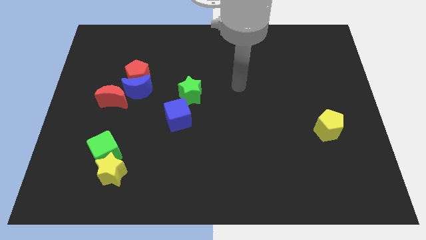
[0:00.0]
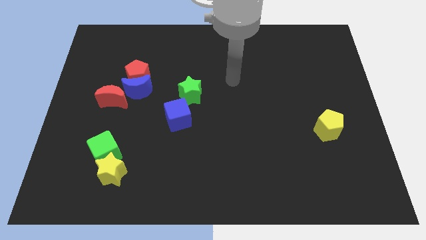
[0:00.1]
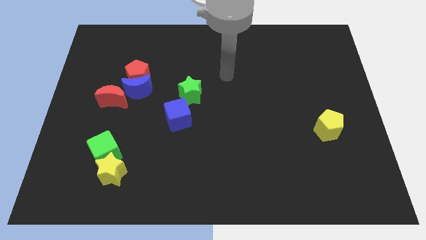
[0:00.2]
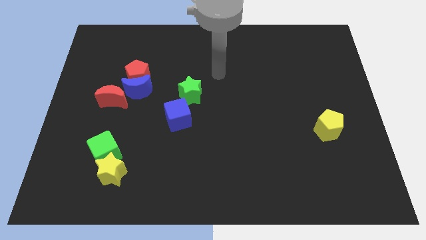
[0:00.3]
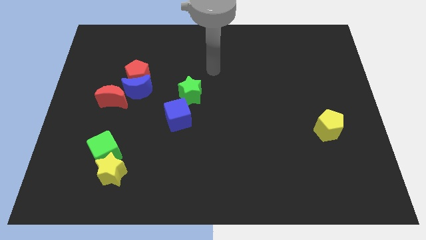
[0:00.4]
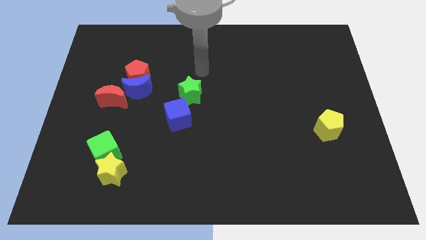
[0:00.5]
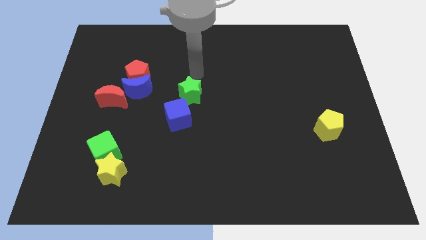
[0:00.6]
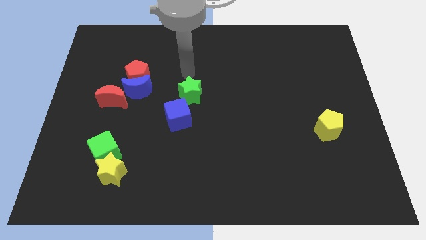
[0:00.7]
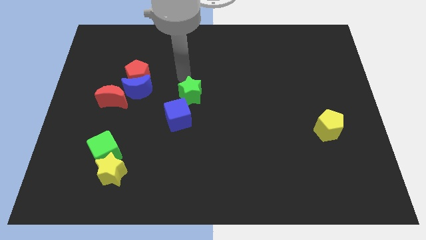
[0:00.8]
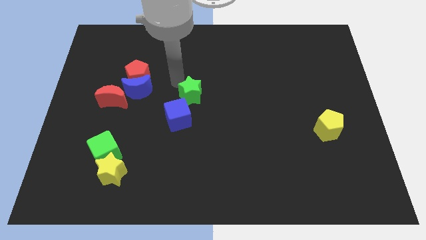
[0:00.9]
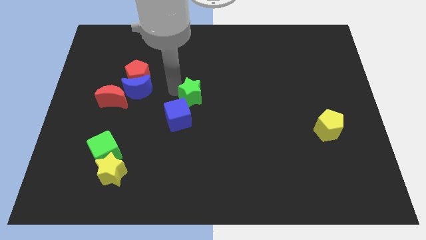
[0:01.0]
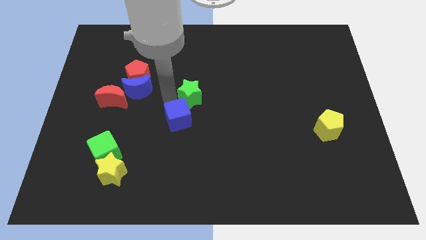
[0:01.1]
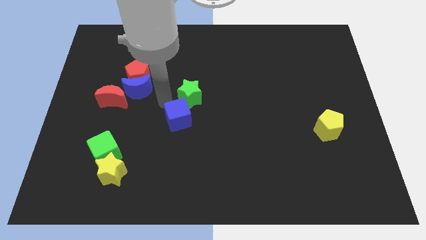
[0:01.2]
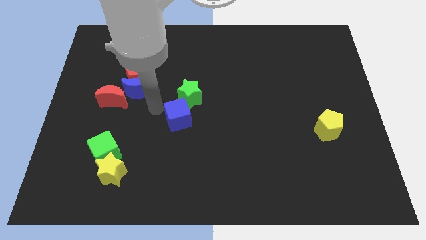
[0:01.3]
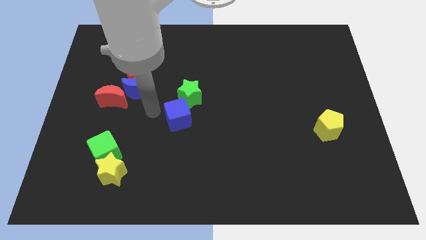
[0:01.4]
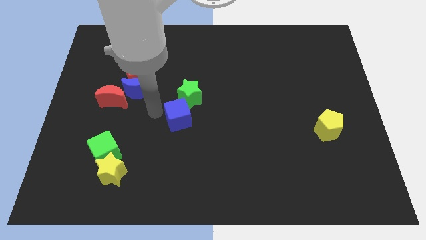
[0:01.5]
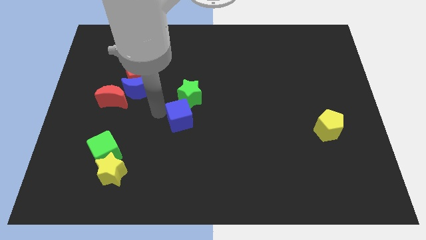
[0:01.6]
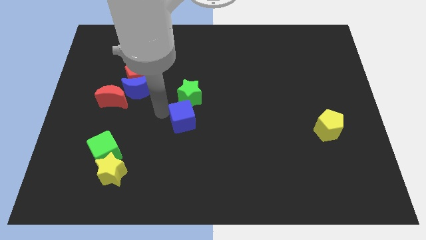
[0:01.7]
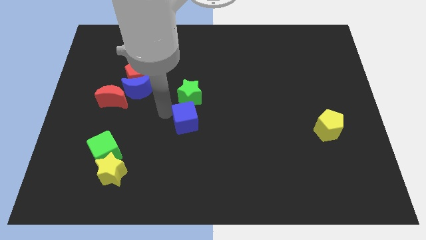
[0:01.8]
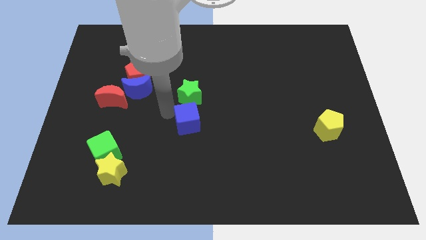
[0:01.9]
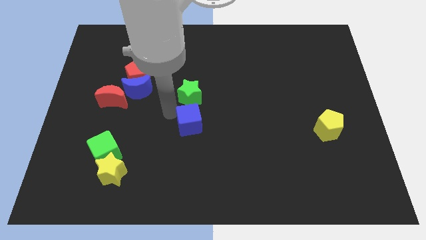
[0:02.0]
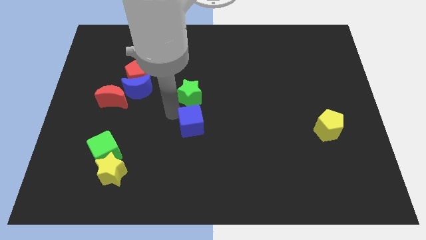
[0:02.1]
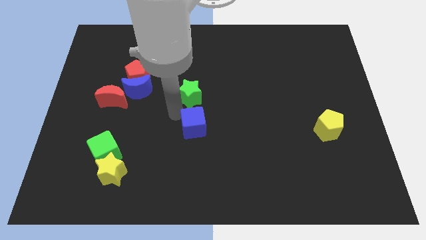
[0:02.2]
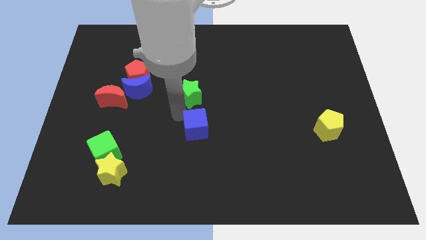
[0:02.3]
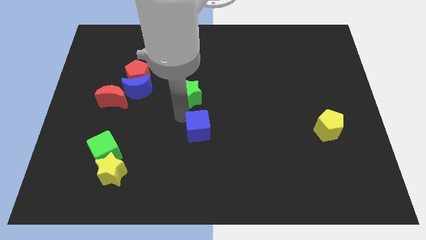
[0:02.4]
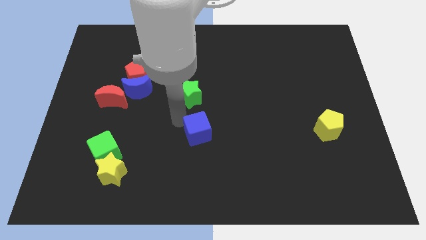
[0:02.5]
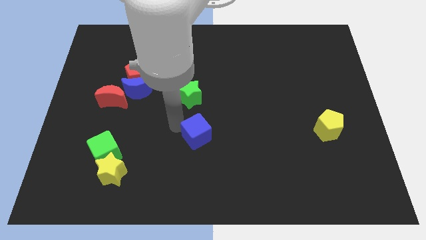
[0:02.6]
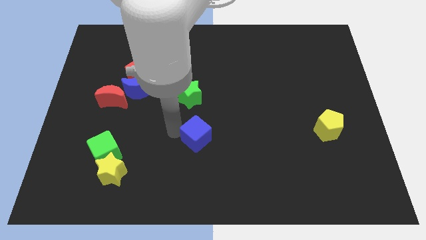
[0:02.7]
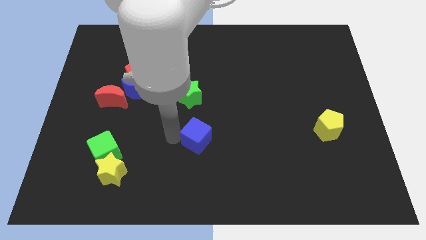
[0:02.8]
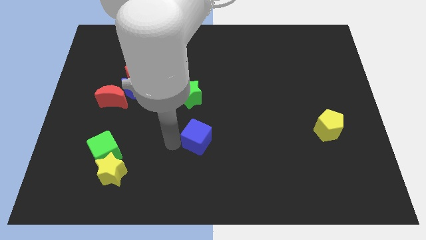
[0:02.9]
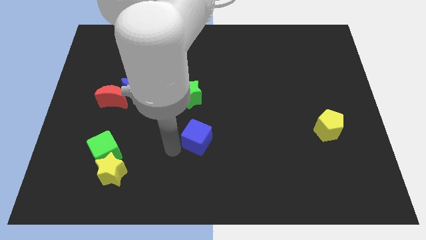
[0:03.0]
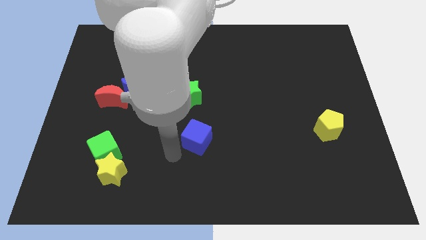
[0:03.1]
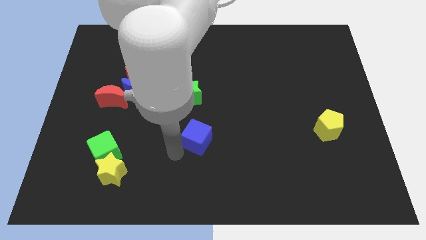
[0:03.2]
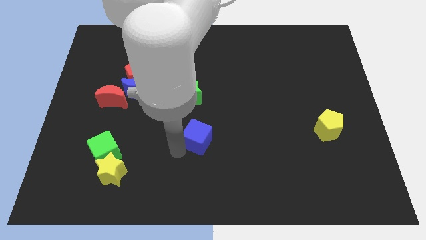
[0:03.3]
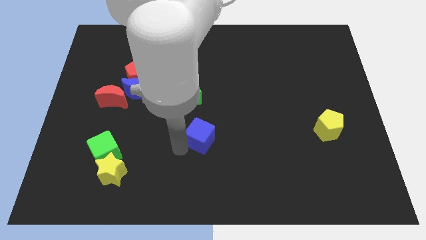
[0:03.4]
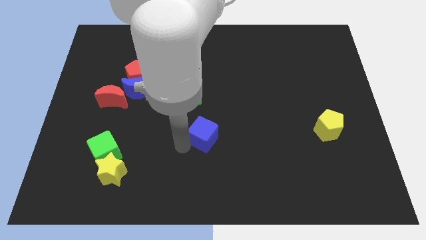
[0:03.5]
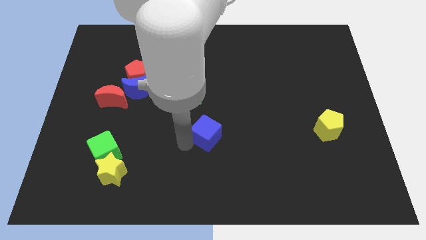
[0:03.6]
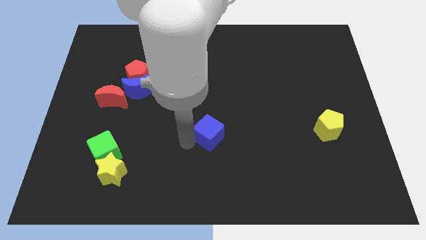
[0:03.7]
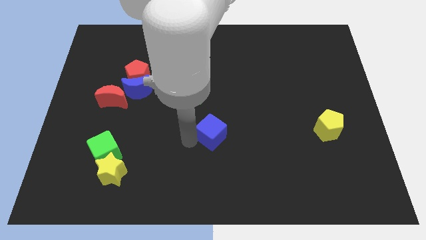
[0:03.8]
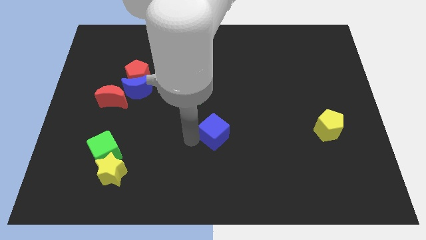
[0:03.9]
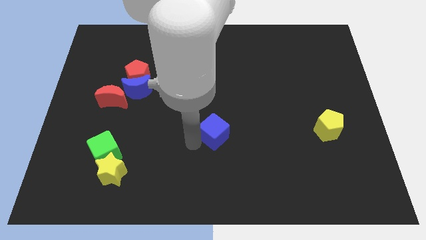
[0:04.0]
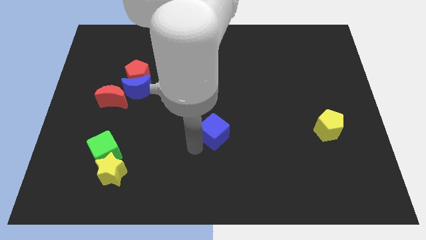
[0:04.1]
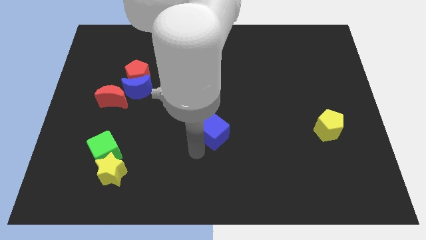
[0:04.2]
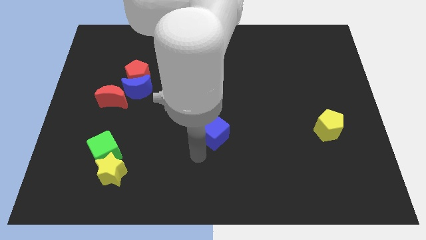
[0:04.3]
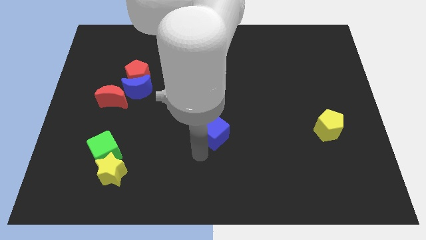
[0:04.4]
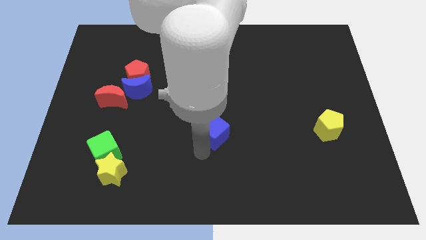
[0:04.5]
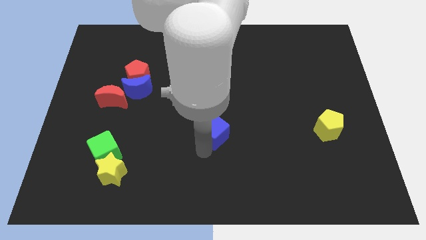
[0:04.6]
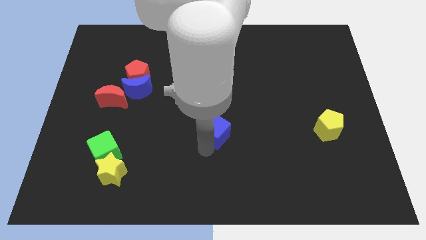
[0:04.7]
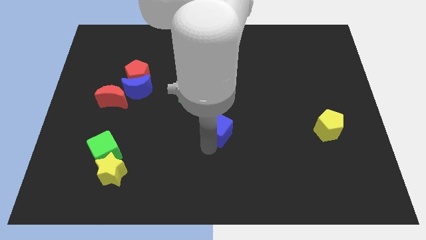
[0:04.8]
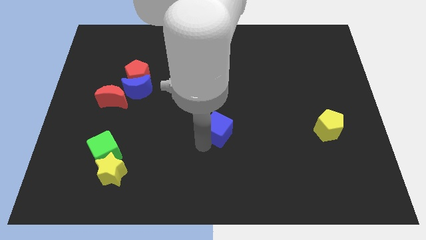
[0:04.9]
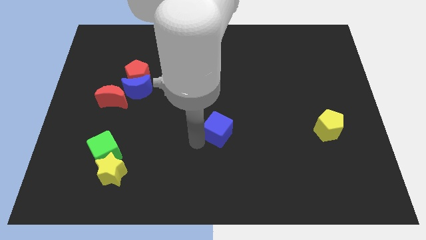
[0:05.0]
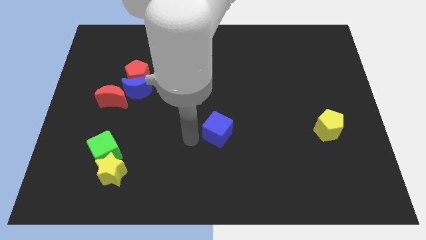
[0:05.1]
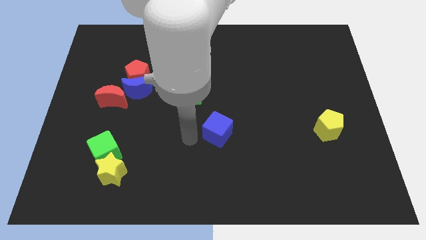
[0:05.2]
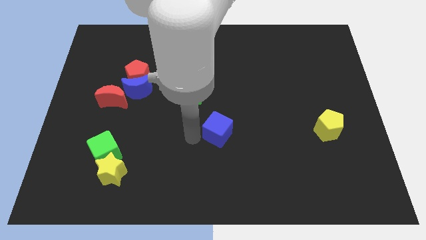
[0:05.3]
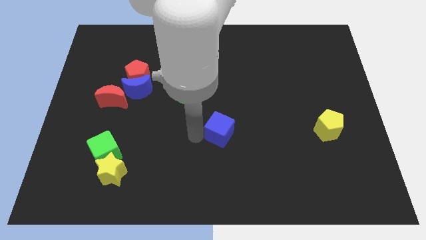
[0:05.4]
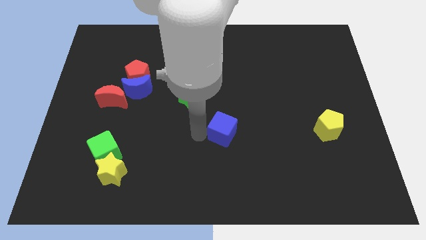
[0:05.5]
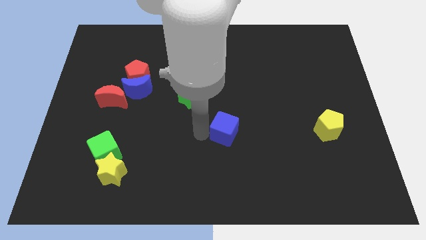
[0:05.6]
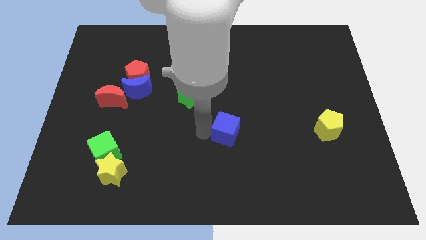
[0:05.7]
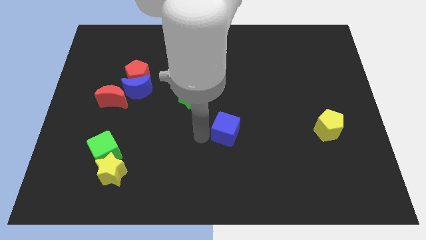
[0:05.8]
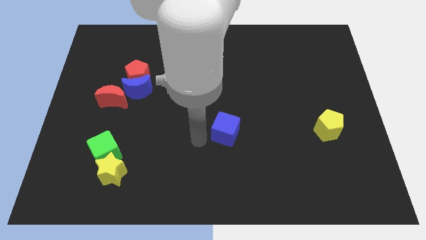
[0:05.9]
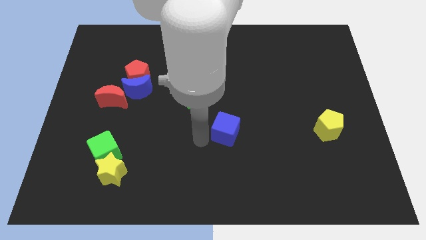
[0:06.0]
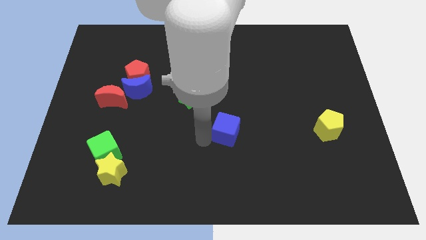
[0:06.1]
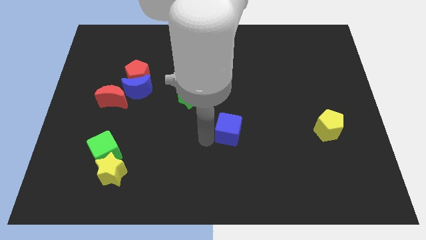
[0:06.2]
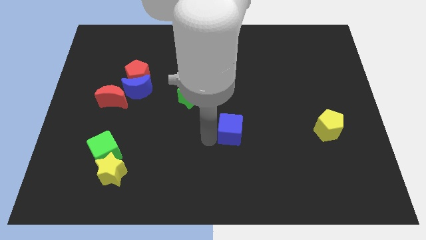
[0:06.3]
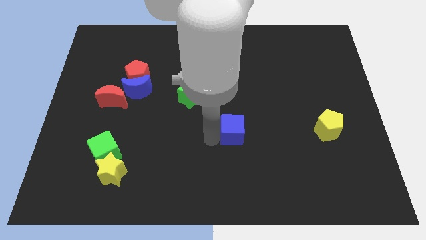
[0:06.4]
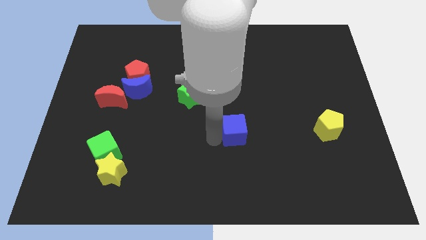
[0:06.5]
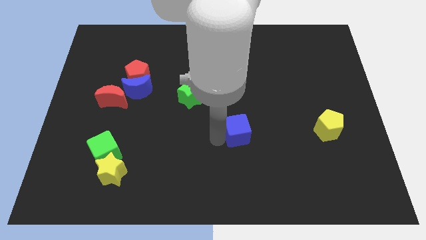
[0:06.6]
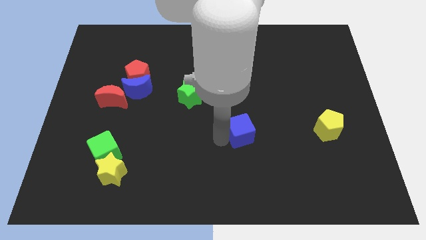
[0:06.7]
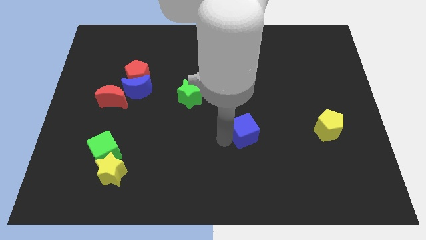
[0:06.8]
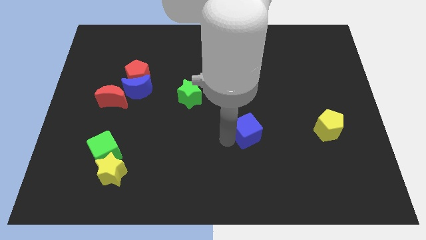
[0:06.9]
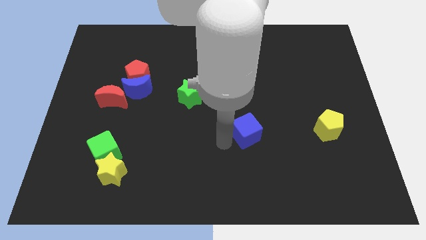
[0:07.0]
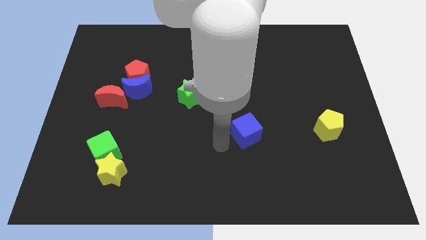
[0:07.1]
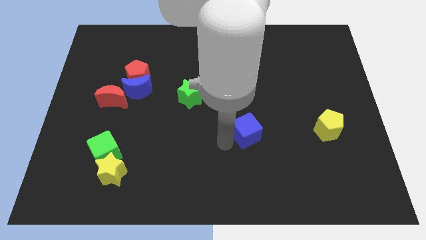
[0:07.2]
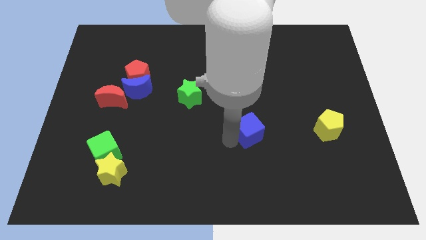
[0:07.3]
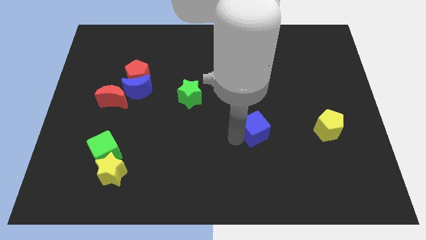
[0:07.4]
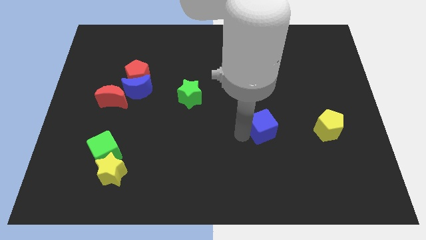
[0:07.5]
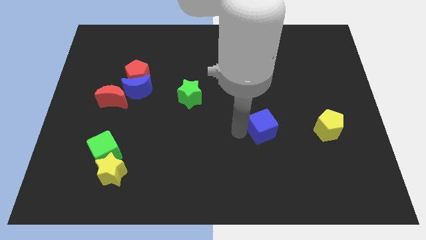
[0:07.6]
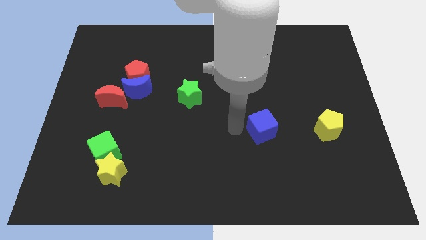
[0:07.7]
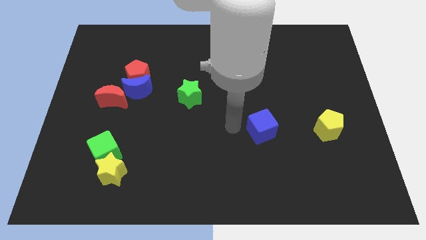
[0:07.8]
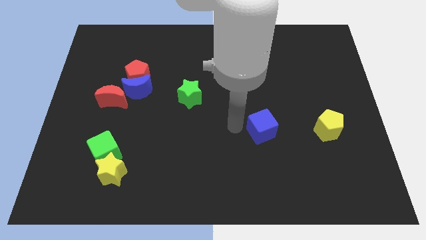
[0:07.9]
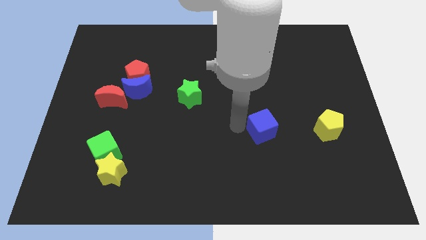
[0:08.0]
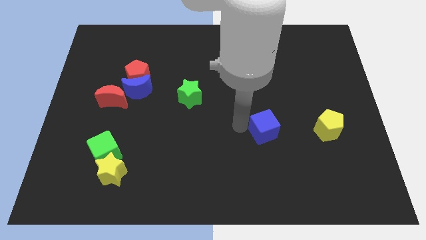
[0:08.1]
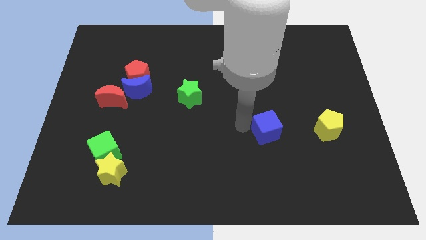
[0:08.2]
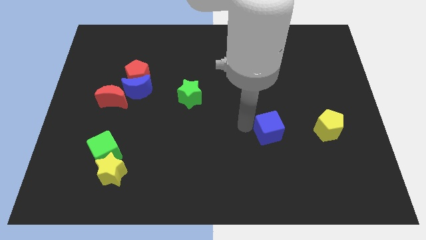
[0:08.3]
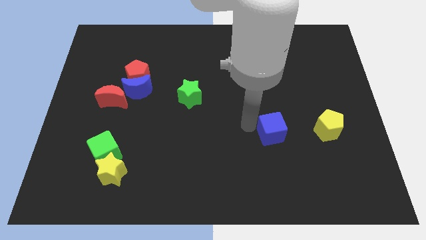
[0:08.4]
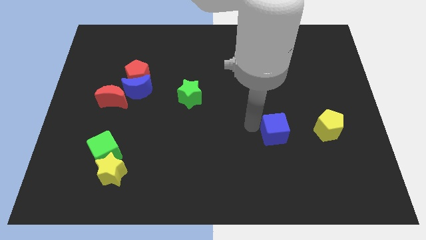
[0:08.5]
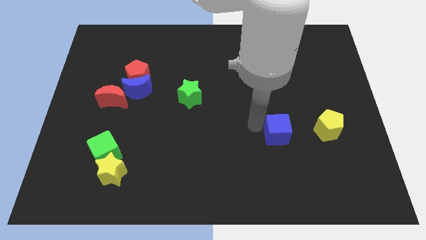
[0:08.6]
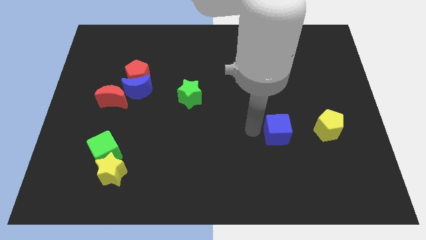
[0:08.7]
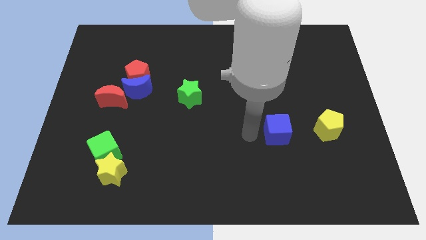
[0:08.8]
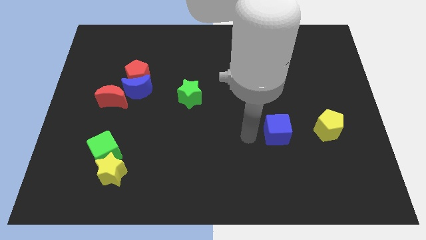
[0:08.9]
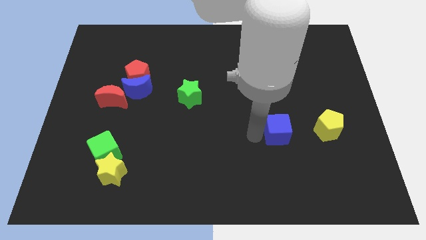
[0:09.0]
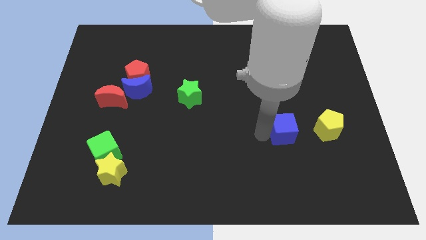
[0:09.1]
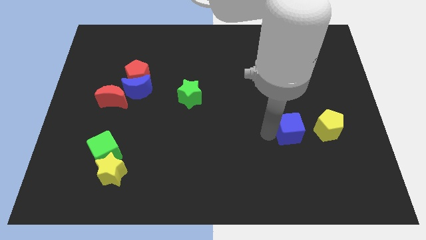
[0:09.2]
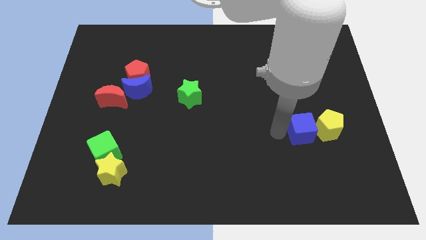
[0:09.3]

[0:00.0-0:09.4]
slide the blue cube next to the yellow pentagon
